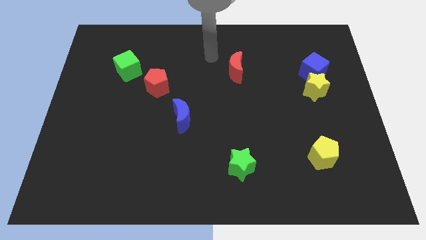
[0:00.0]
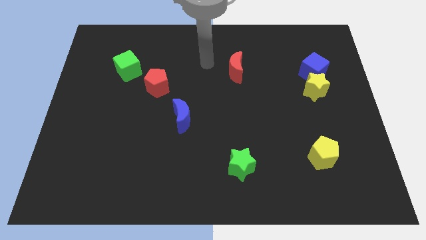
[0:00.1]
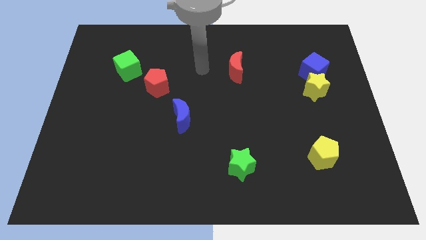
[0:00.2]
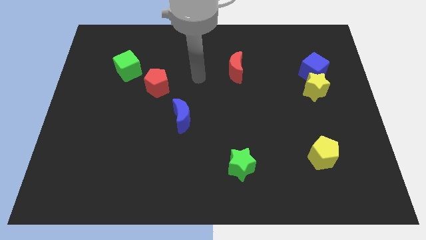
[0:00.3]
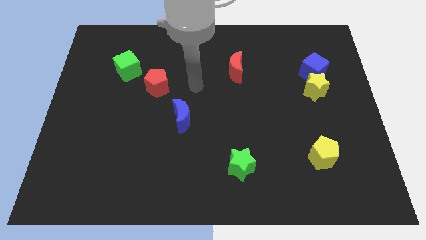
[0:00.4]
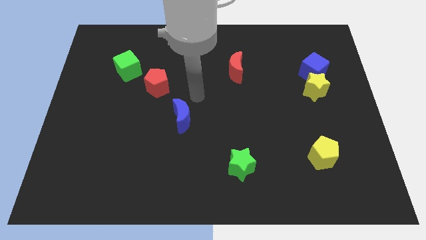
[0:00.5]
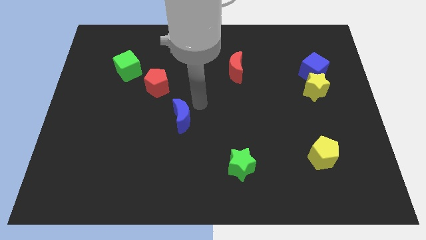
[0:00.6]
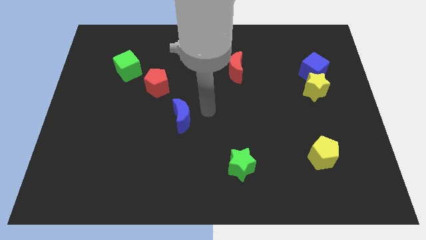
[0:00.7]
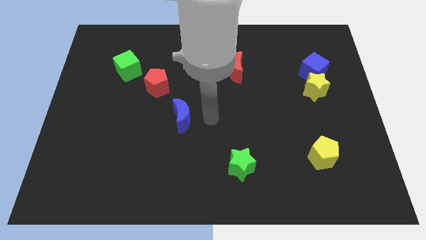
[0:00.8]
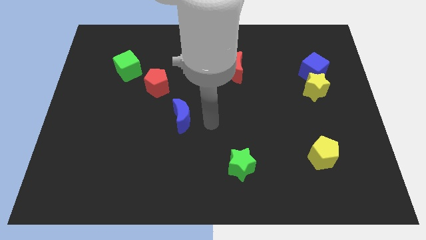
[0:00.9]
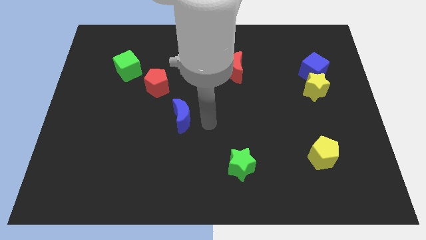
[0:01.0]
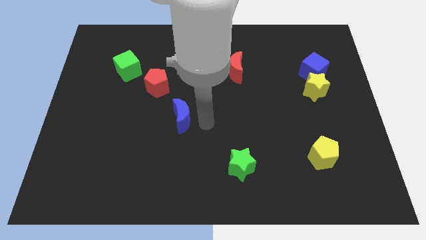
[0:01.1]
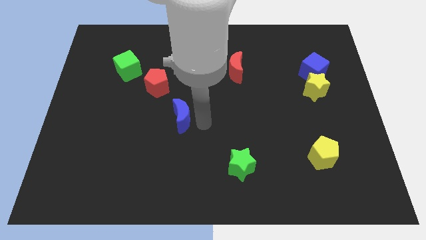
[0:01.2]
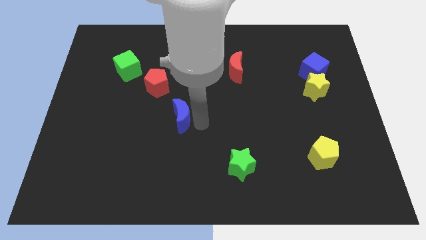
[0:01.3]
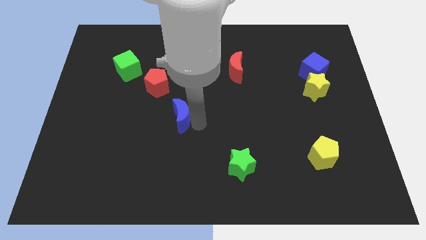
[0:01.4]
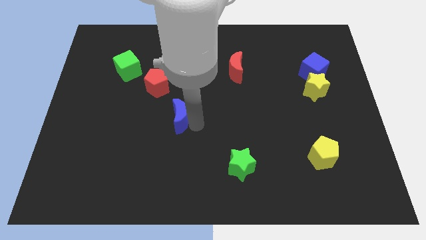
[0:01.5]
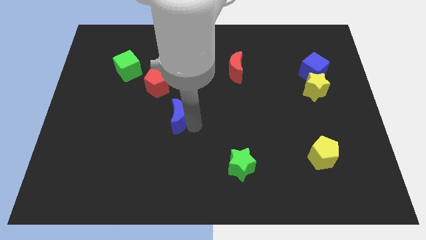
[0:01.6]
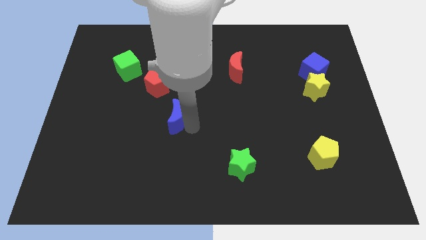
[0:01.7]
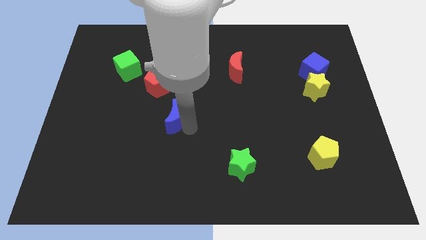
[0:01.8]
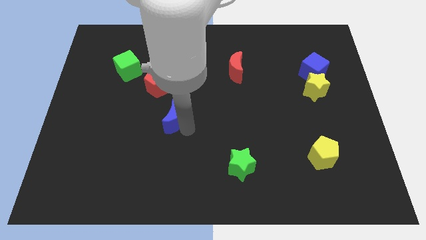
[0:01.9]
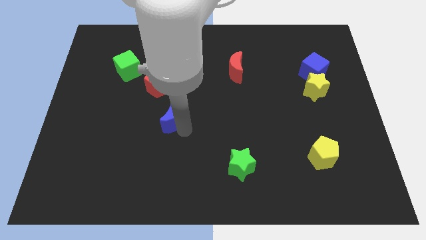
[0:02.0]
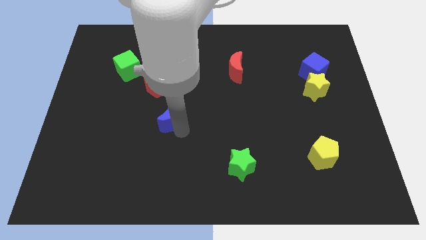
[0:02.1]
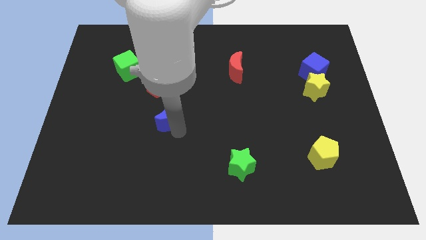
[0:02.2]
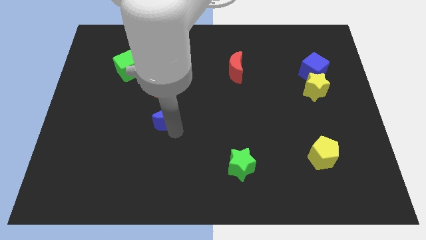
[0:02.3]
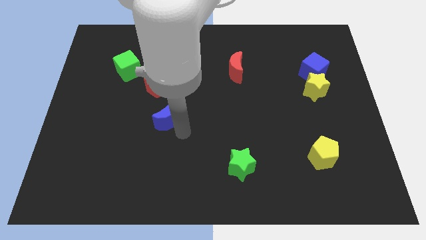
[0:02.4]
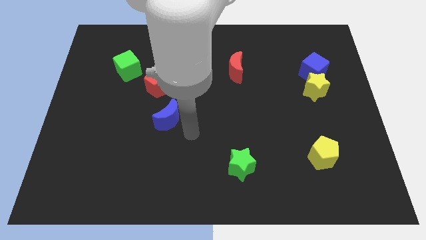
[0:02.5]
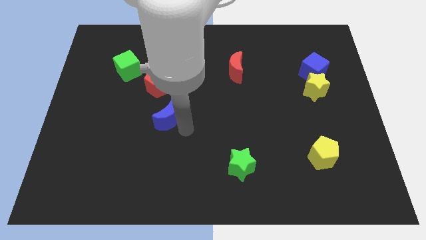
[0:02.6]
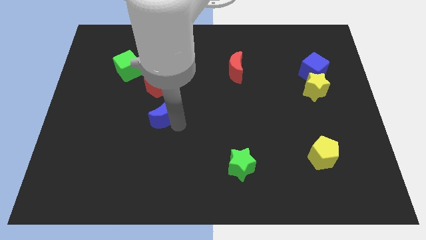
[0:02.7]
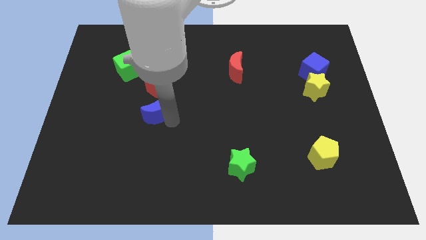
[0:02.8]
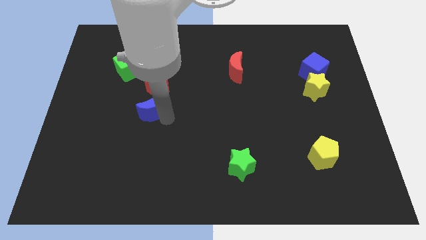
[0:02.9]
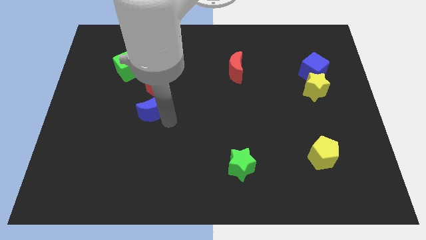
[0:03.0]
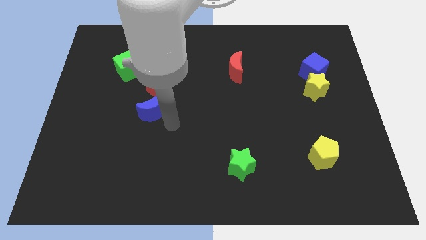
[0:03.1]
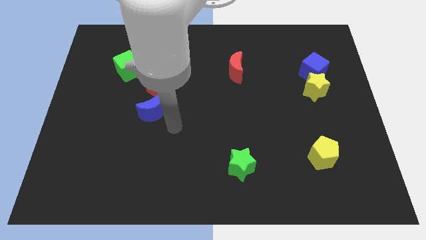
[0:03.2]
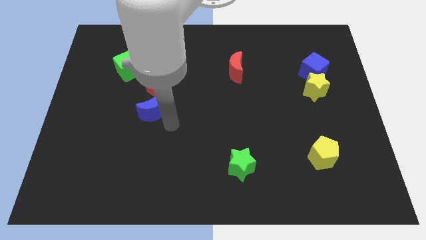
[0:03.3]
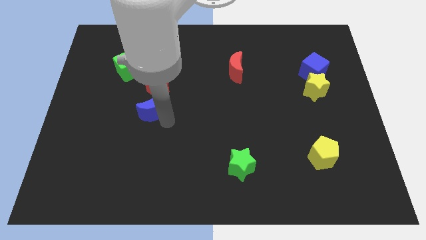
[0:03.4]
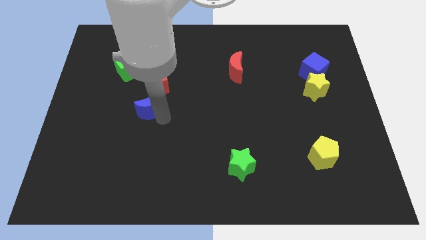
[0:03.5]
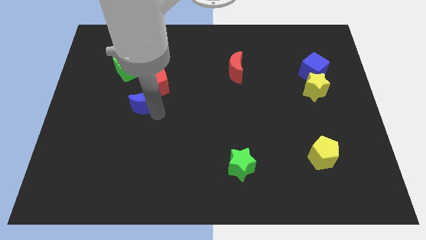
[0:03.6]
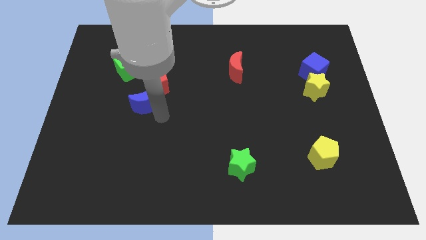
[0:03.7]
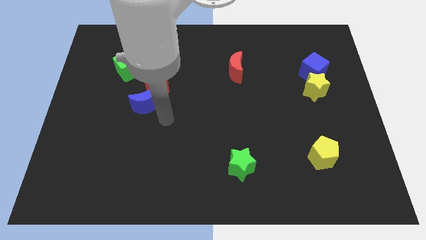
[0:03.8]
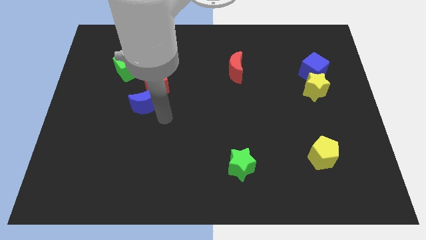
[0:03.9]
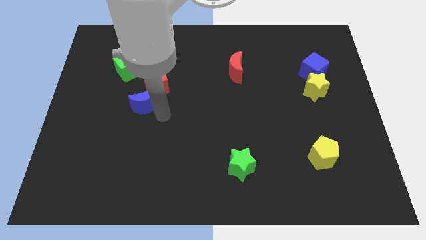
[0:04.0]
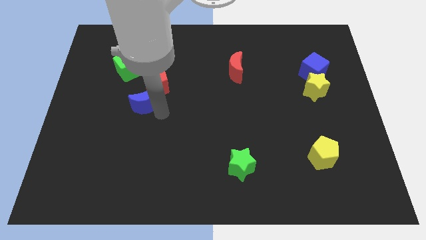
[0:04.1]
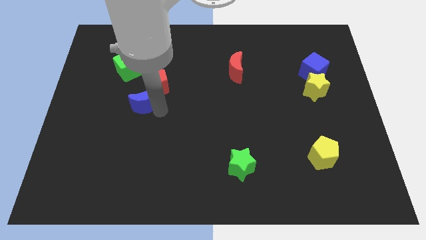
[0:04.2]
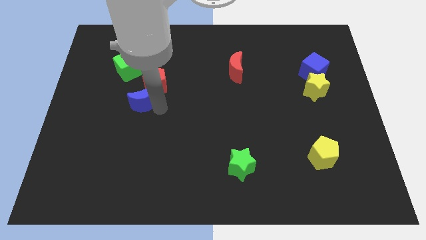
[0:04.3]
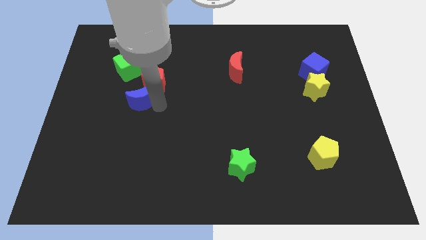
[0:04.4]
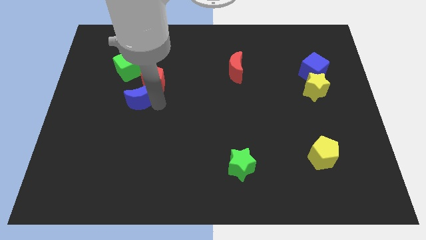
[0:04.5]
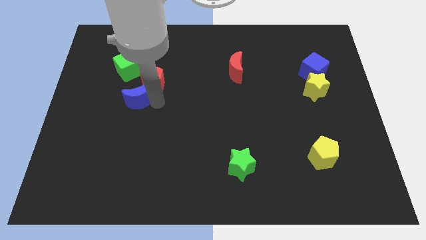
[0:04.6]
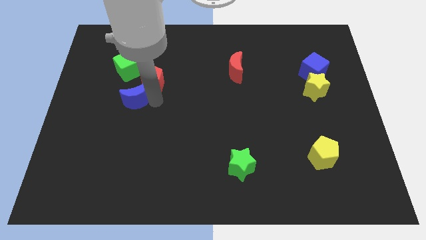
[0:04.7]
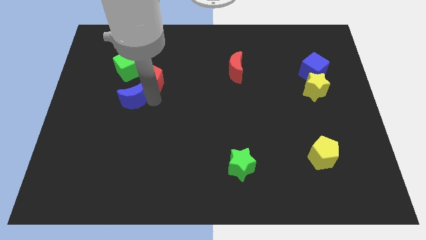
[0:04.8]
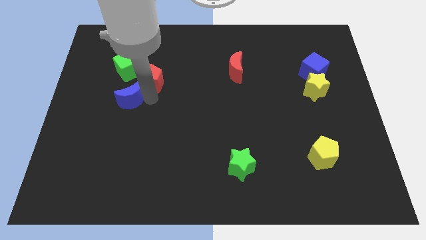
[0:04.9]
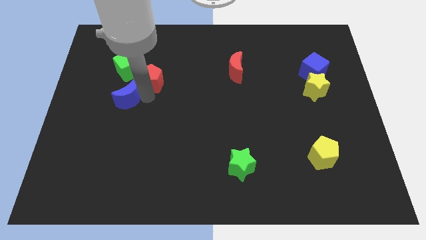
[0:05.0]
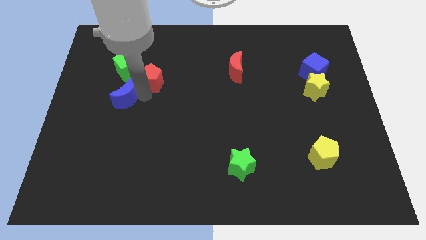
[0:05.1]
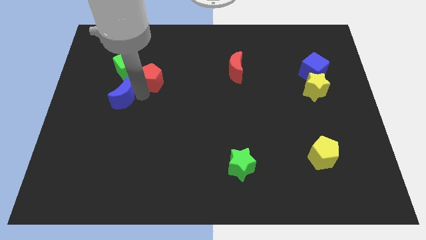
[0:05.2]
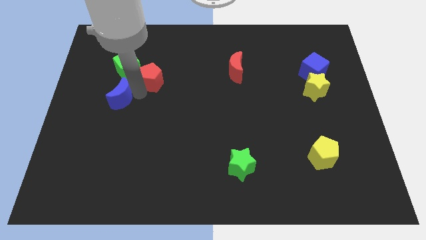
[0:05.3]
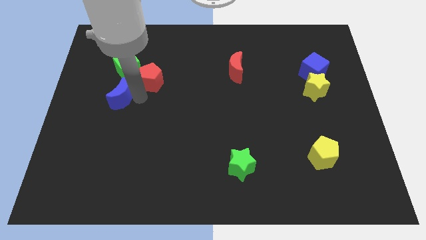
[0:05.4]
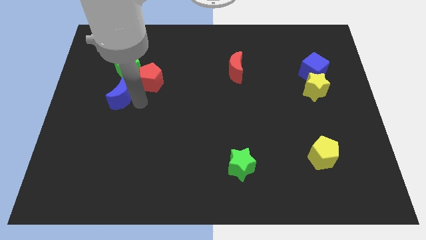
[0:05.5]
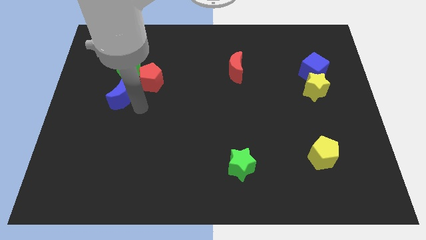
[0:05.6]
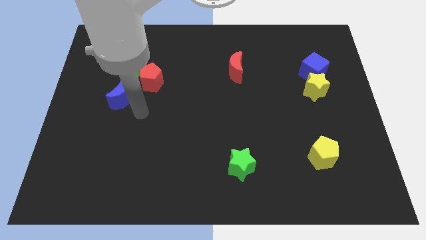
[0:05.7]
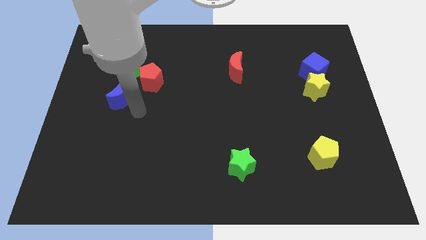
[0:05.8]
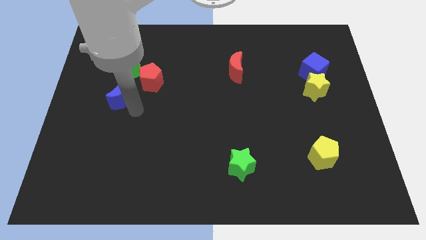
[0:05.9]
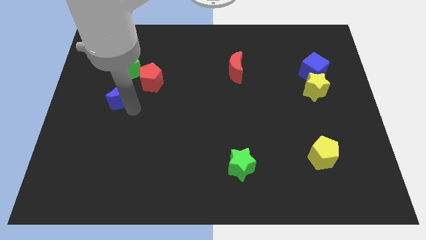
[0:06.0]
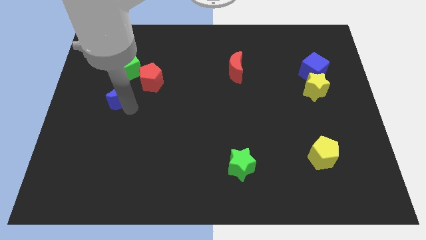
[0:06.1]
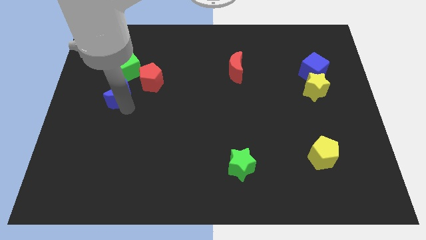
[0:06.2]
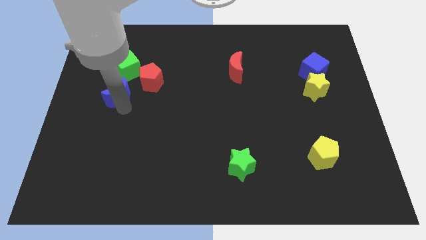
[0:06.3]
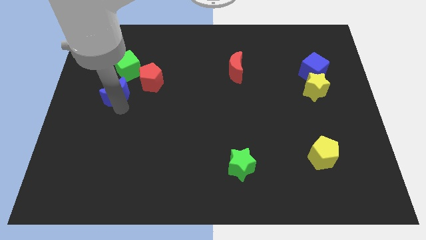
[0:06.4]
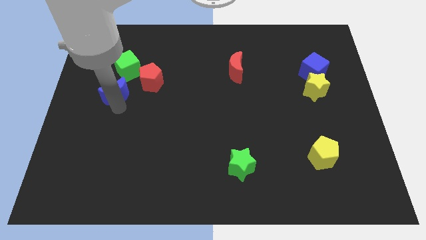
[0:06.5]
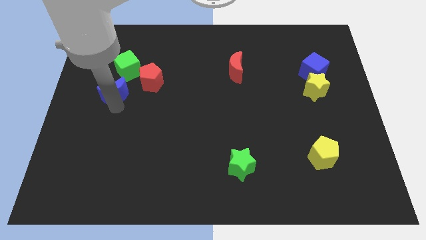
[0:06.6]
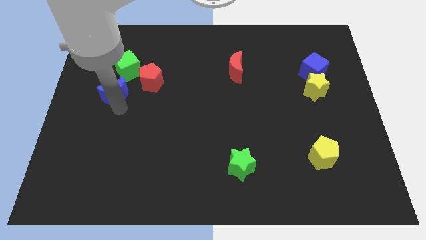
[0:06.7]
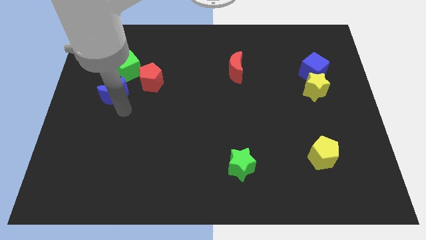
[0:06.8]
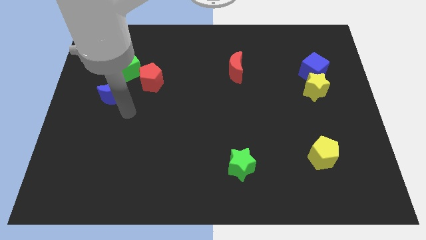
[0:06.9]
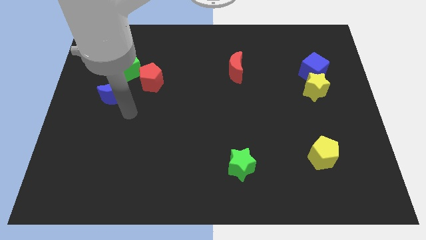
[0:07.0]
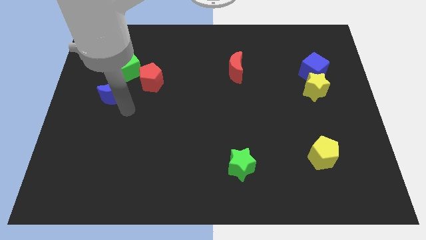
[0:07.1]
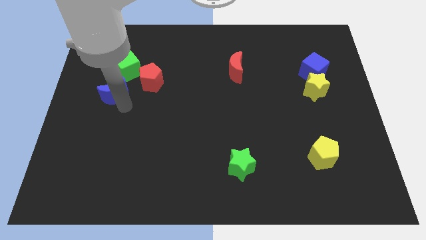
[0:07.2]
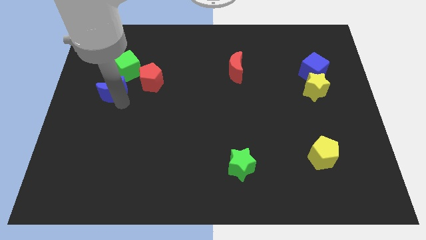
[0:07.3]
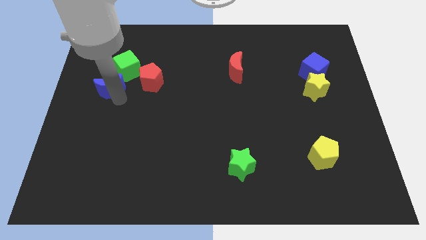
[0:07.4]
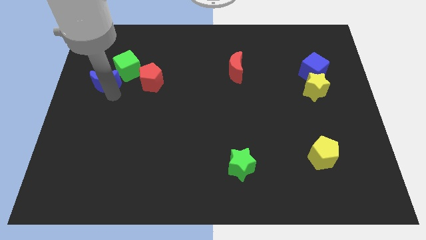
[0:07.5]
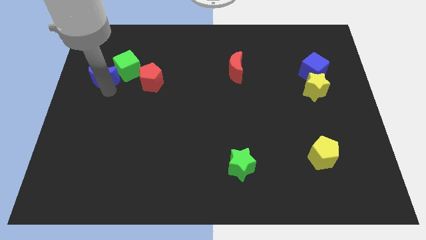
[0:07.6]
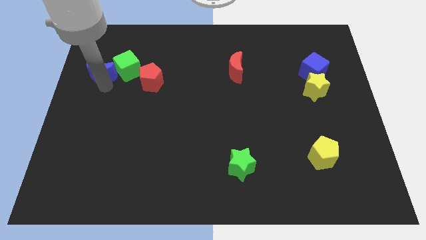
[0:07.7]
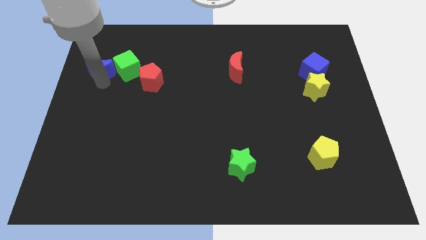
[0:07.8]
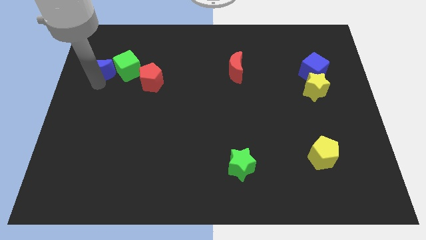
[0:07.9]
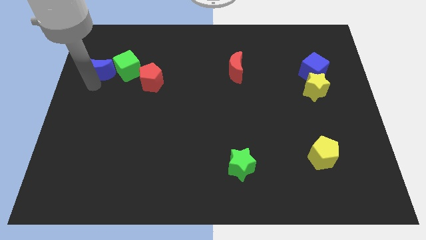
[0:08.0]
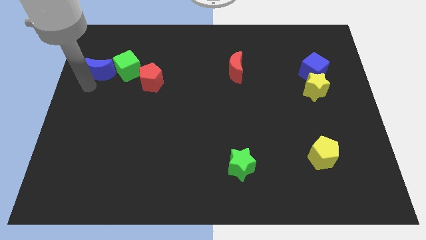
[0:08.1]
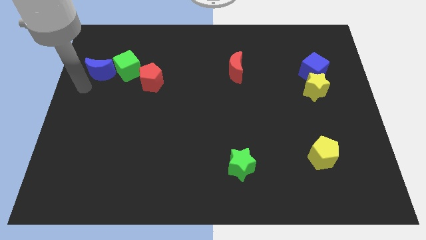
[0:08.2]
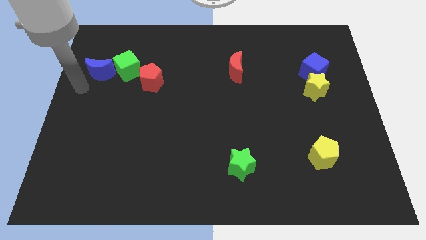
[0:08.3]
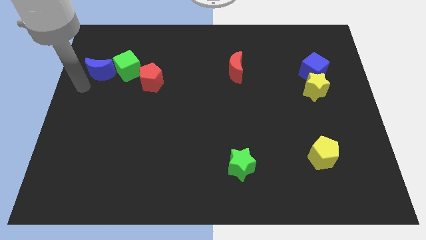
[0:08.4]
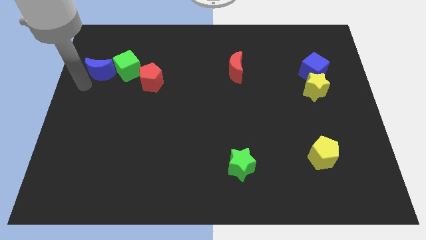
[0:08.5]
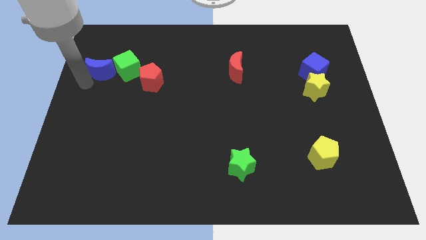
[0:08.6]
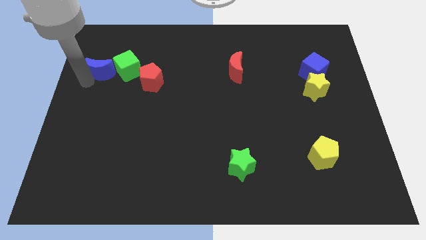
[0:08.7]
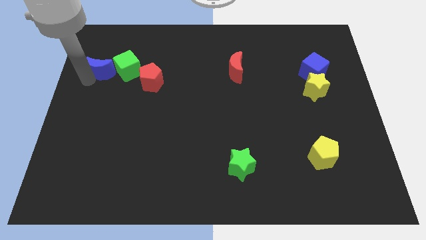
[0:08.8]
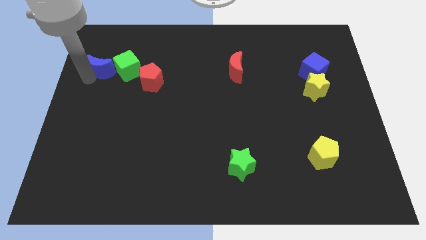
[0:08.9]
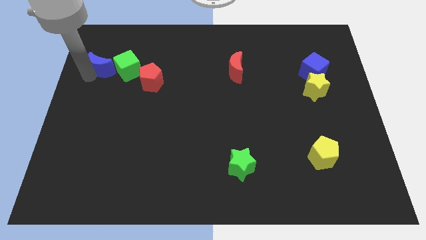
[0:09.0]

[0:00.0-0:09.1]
move the blue moon to the top left of the green cube
